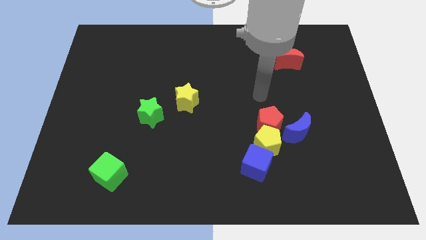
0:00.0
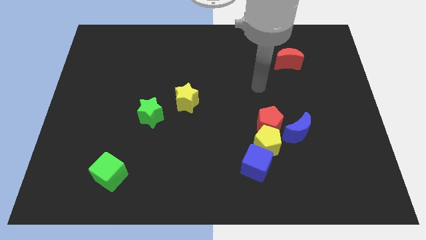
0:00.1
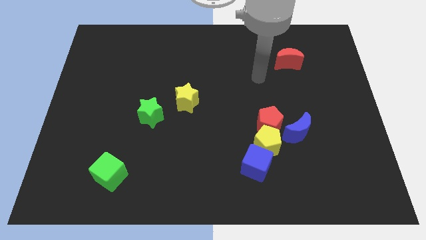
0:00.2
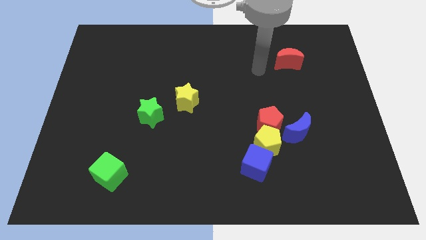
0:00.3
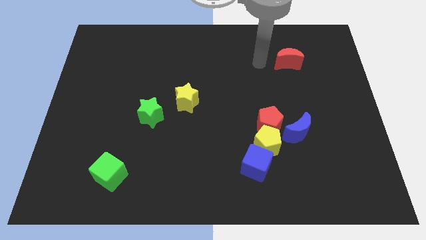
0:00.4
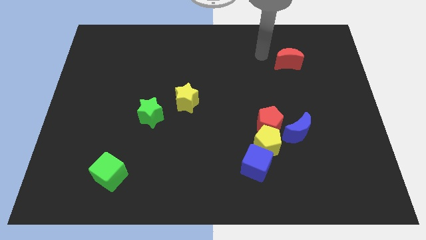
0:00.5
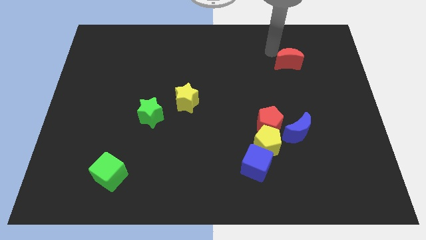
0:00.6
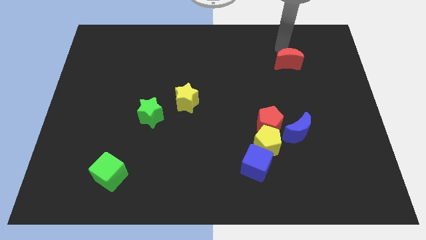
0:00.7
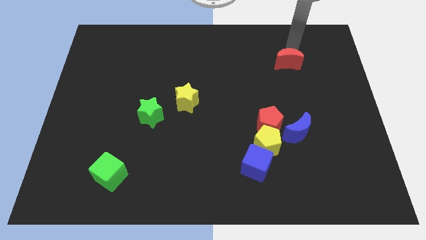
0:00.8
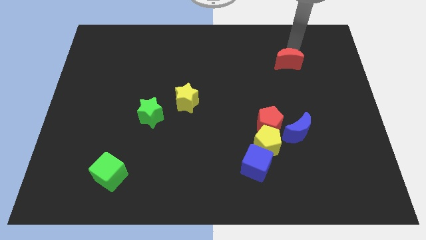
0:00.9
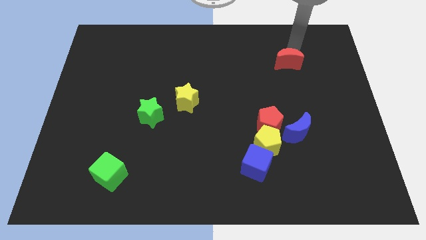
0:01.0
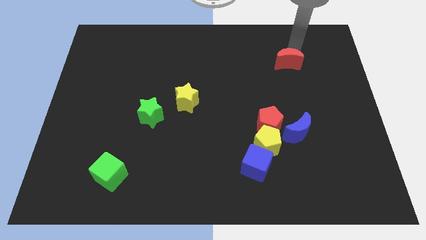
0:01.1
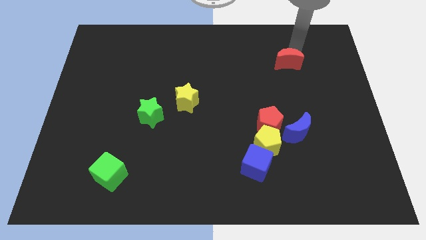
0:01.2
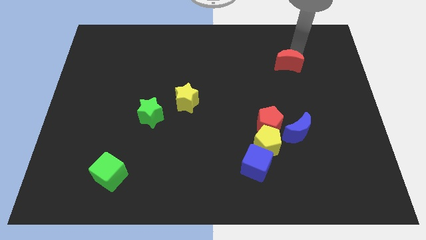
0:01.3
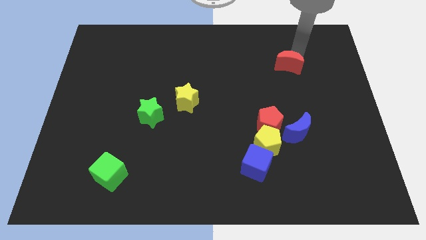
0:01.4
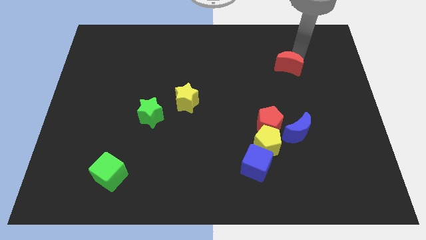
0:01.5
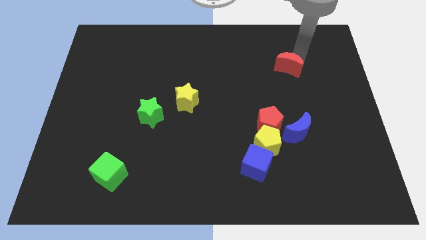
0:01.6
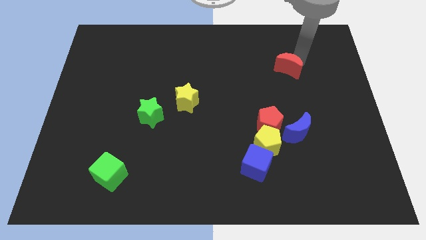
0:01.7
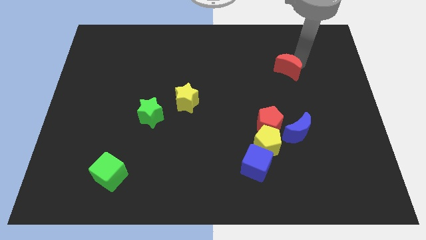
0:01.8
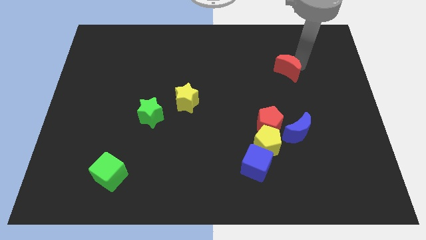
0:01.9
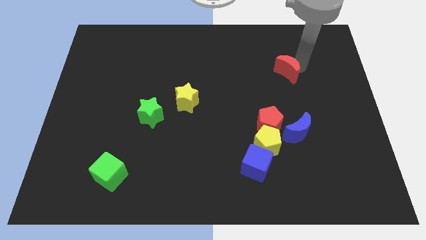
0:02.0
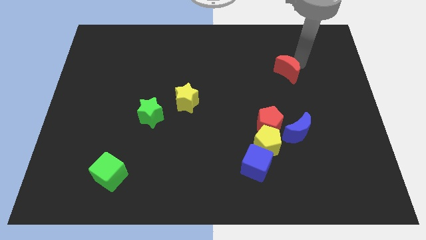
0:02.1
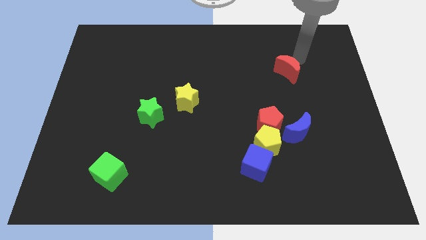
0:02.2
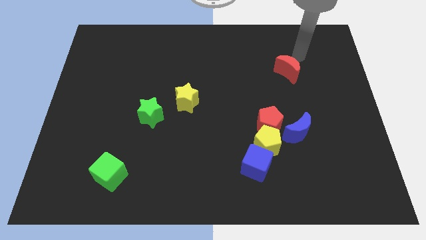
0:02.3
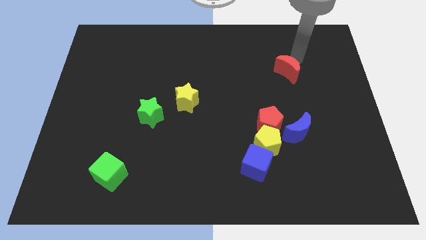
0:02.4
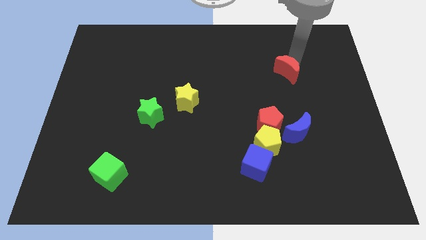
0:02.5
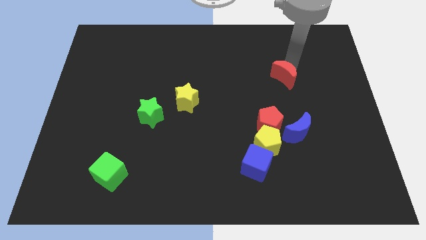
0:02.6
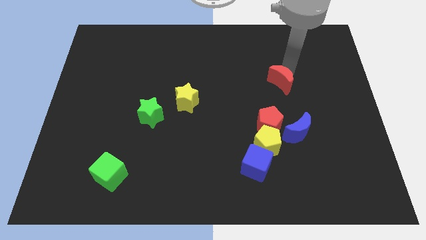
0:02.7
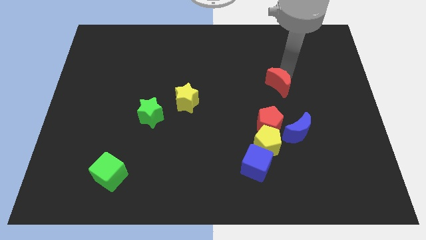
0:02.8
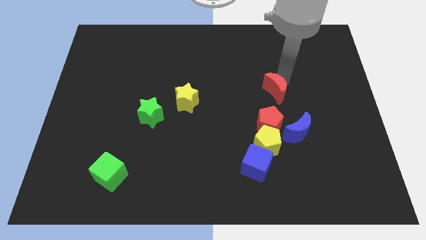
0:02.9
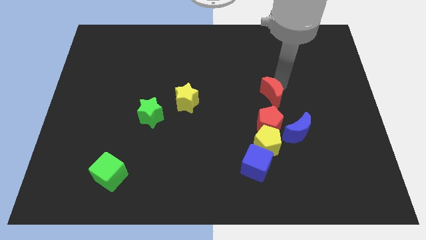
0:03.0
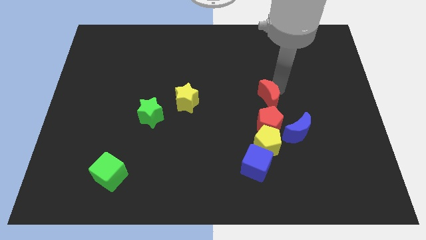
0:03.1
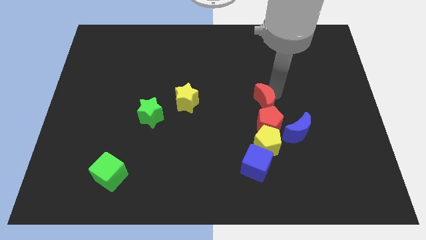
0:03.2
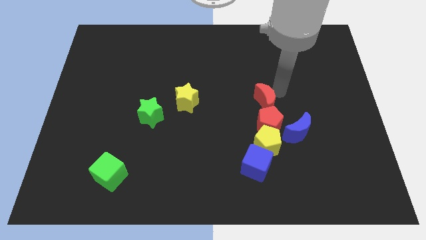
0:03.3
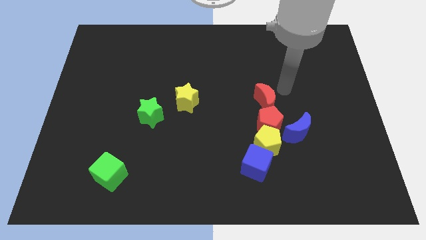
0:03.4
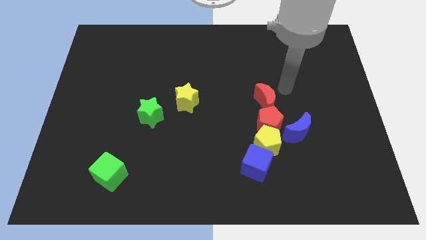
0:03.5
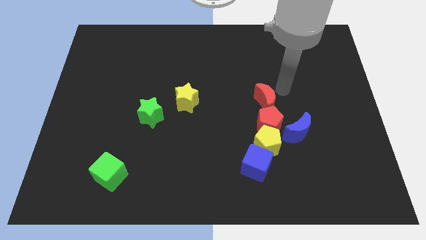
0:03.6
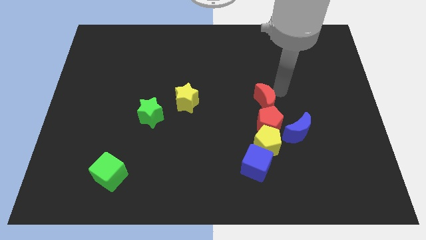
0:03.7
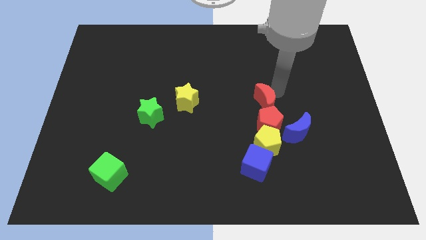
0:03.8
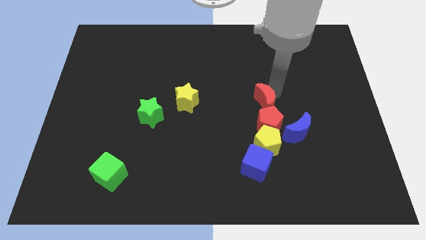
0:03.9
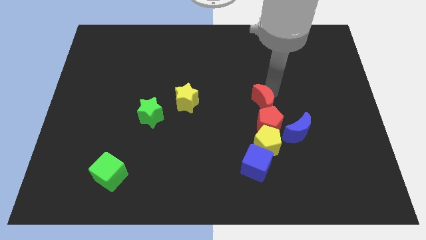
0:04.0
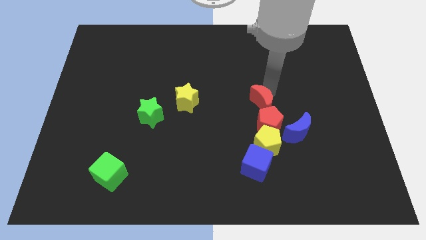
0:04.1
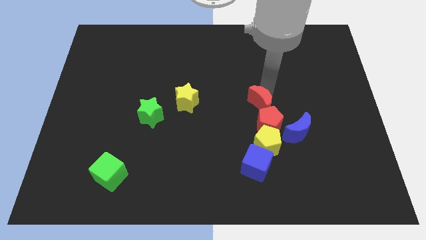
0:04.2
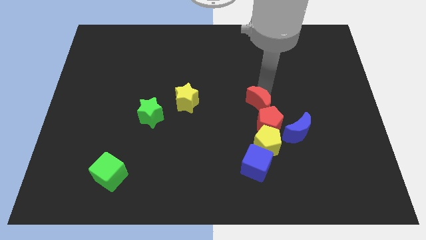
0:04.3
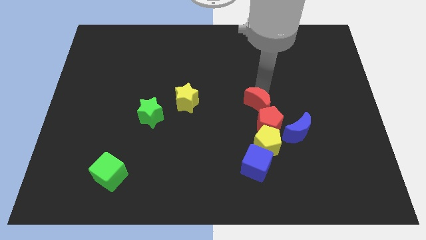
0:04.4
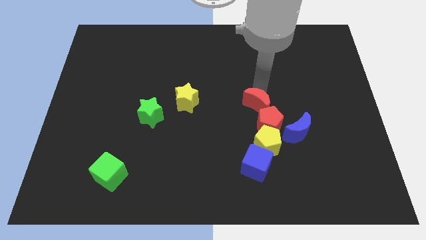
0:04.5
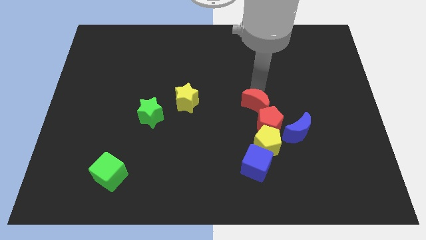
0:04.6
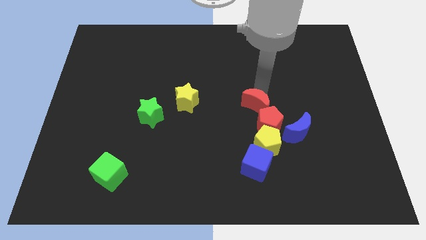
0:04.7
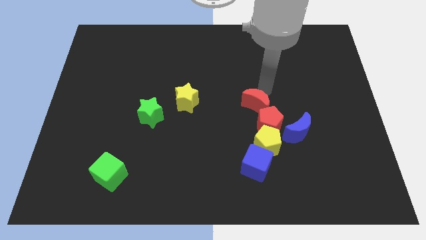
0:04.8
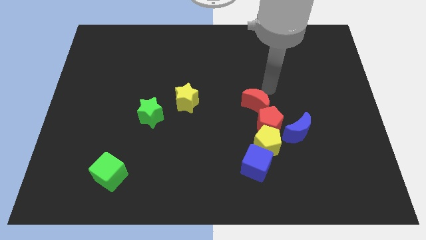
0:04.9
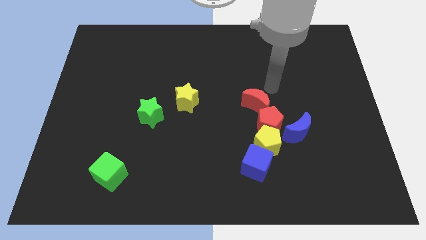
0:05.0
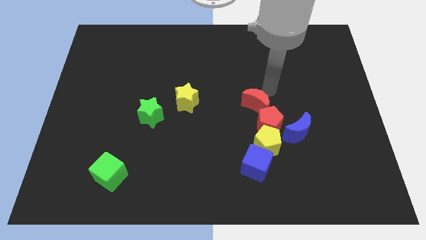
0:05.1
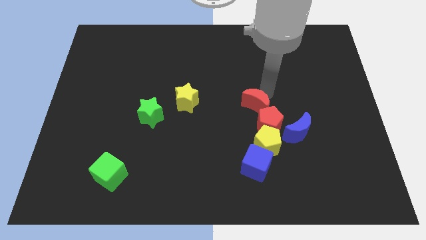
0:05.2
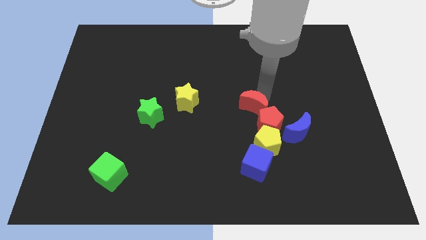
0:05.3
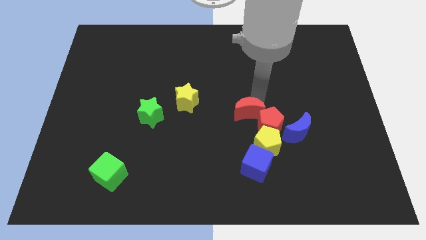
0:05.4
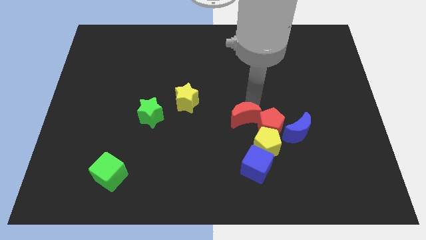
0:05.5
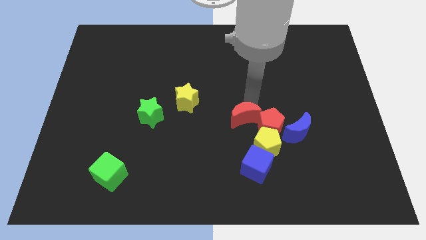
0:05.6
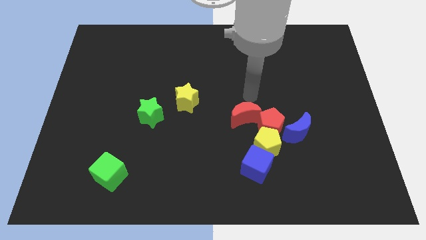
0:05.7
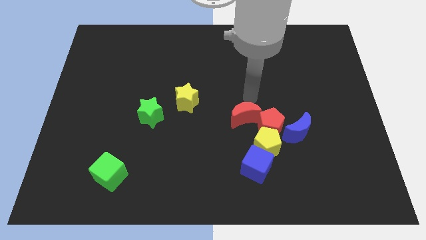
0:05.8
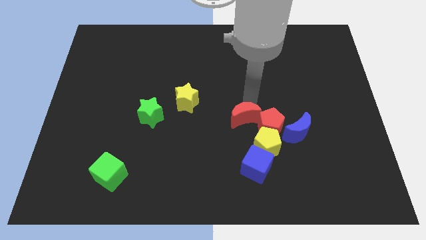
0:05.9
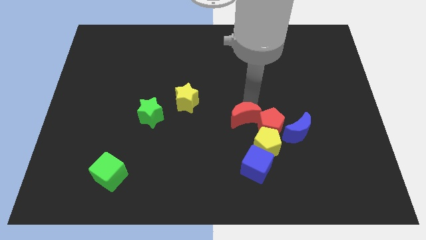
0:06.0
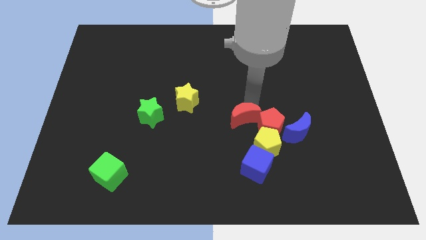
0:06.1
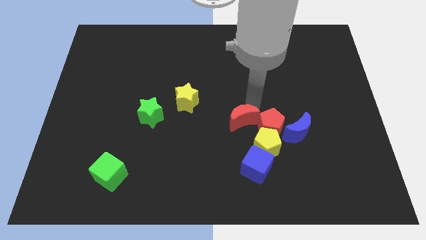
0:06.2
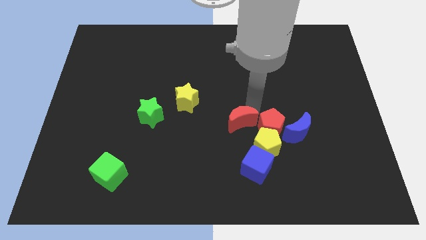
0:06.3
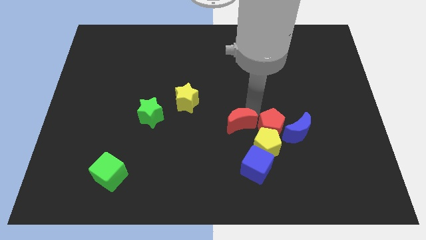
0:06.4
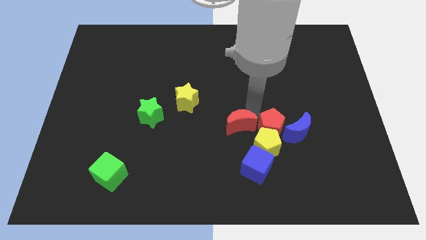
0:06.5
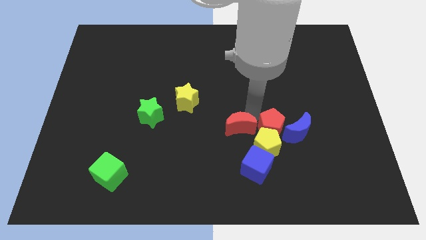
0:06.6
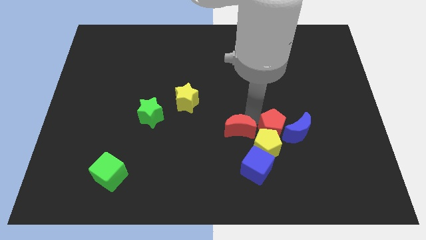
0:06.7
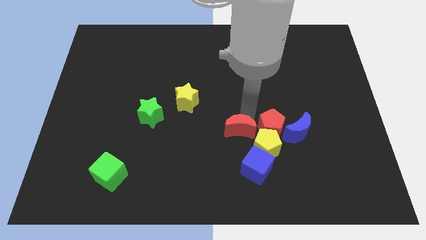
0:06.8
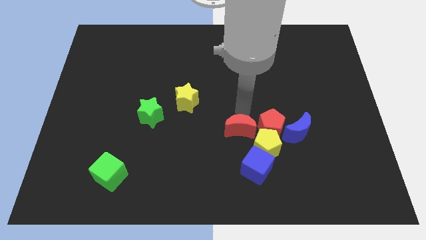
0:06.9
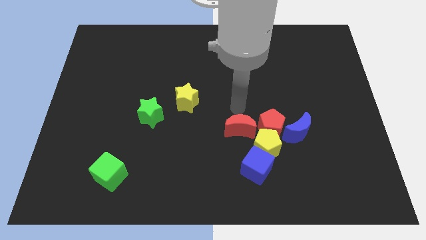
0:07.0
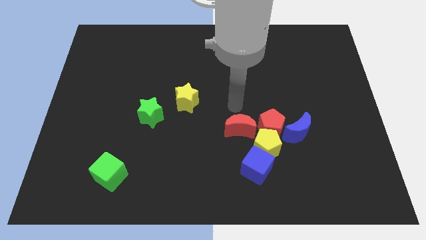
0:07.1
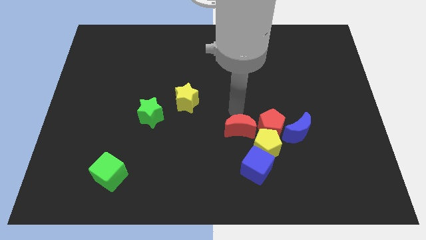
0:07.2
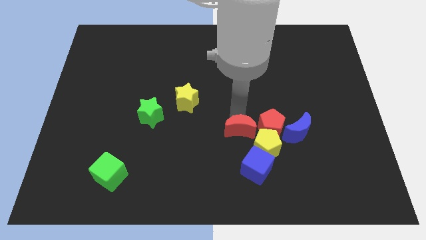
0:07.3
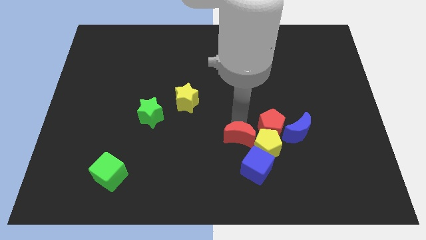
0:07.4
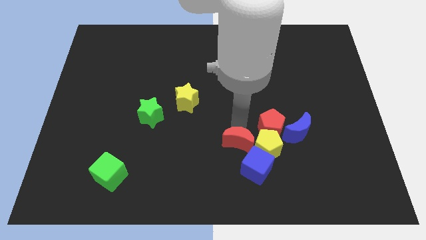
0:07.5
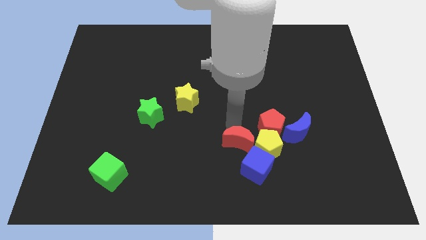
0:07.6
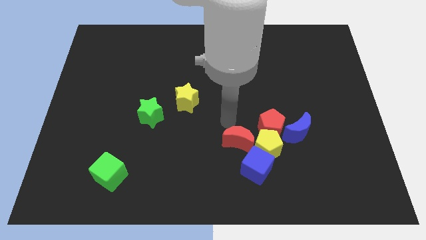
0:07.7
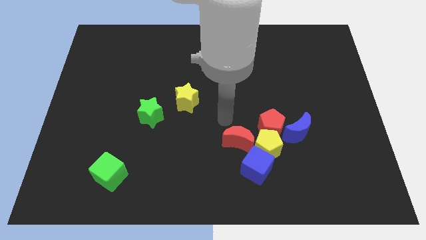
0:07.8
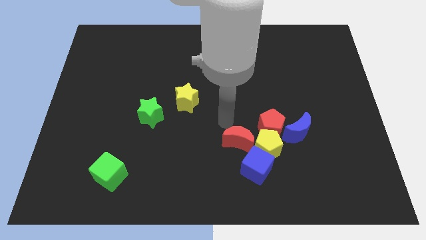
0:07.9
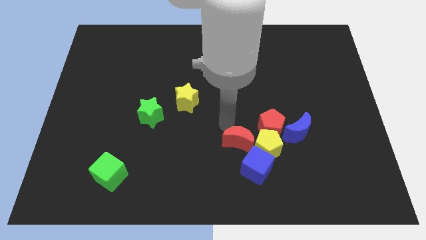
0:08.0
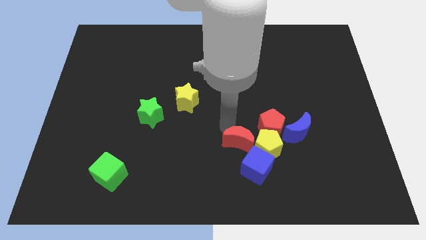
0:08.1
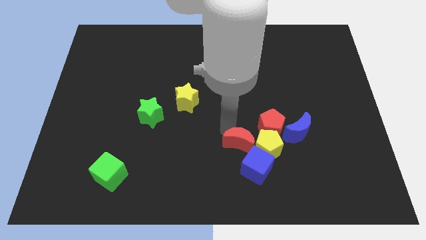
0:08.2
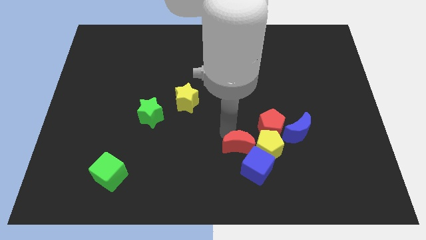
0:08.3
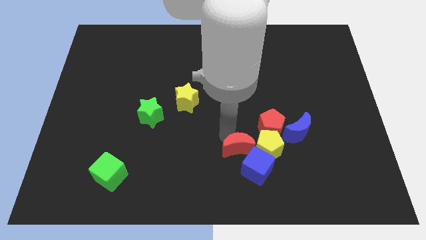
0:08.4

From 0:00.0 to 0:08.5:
move the red moon to the blue cube
